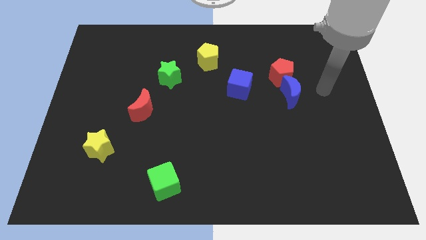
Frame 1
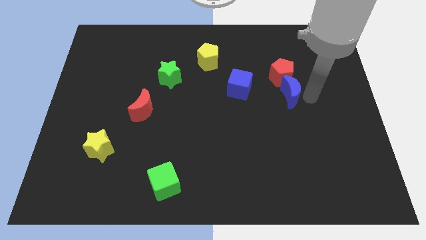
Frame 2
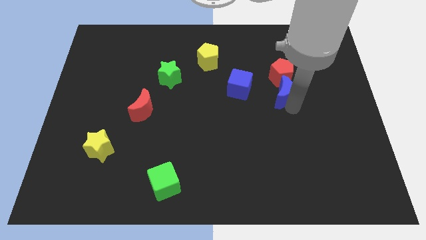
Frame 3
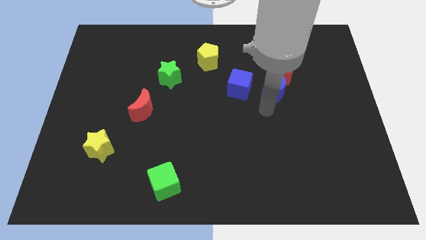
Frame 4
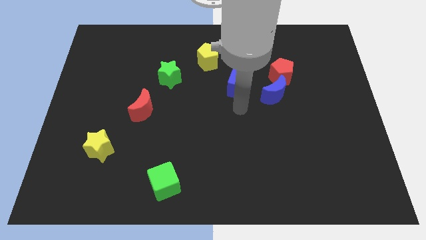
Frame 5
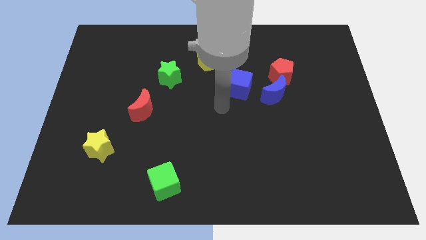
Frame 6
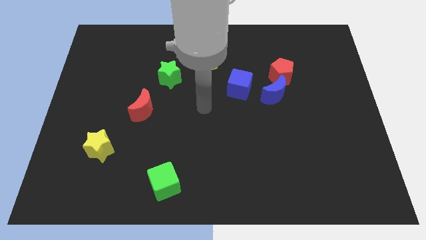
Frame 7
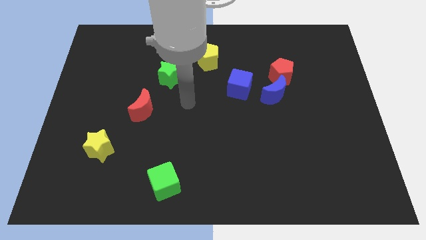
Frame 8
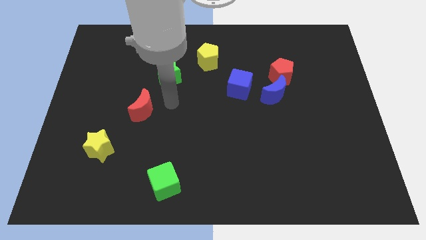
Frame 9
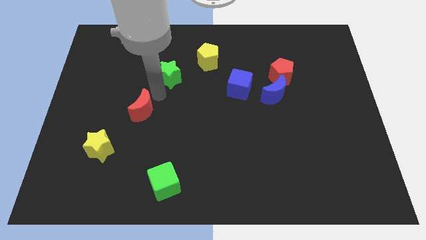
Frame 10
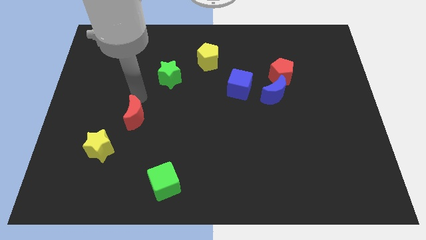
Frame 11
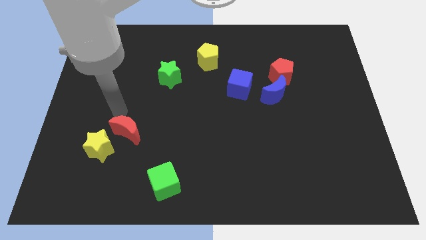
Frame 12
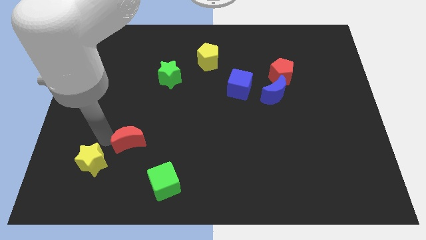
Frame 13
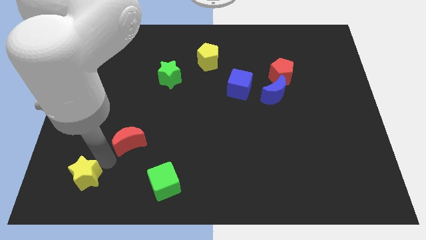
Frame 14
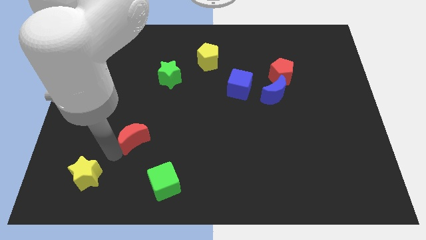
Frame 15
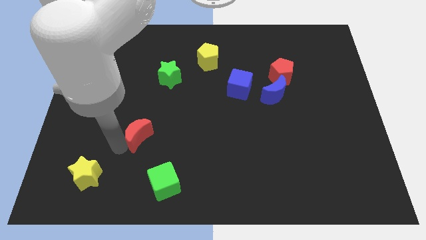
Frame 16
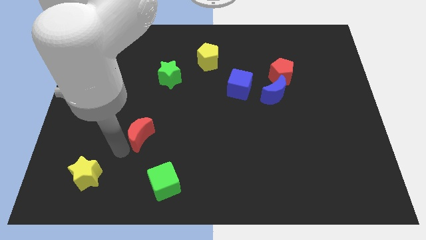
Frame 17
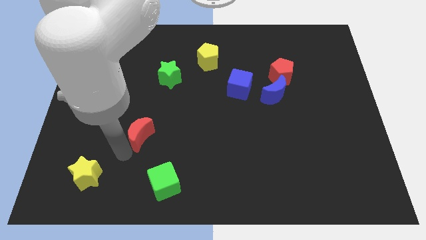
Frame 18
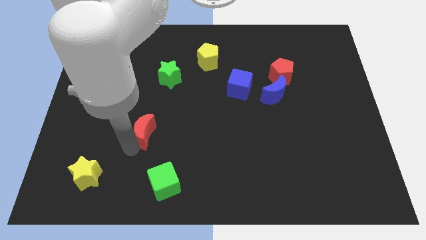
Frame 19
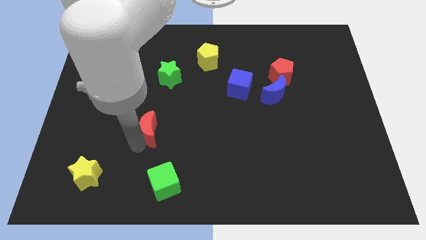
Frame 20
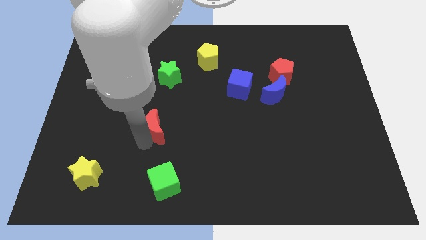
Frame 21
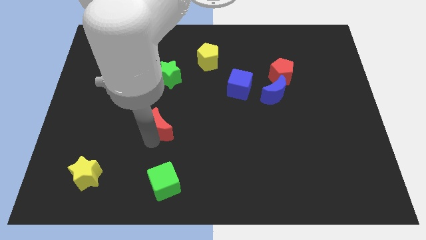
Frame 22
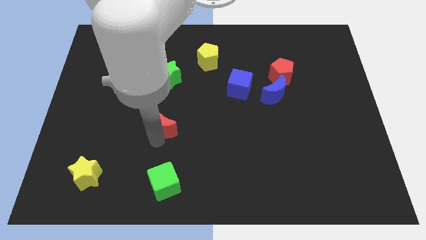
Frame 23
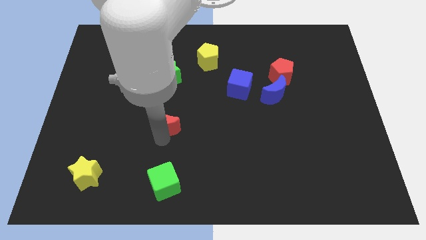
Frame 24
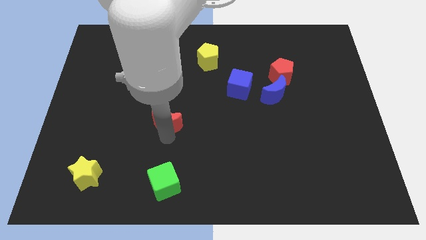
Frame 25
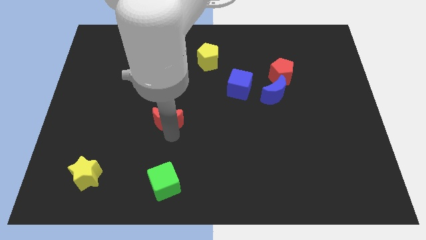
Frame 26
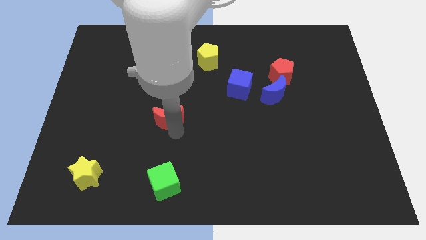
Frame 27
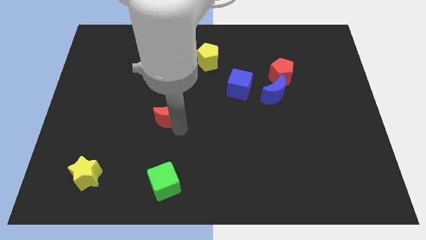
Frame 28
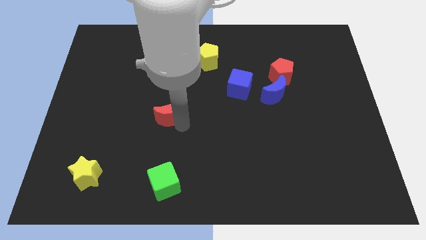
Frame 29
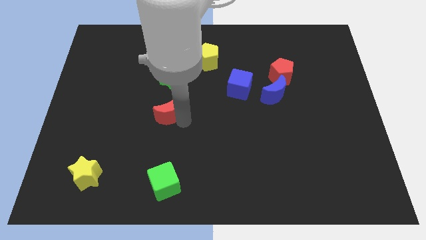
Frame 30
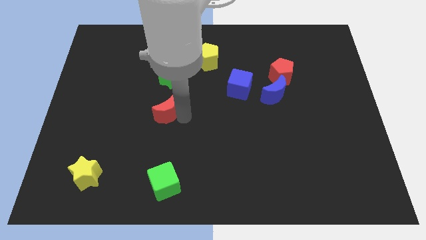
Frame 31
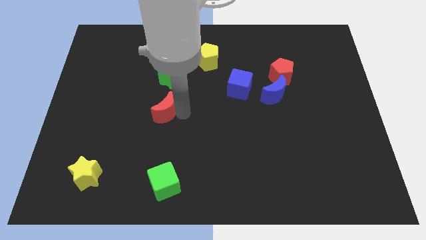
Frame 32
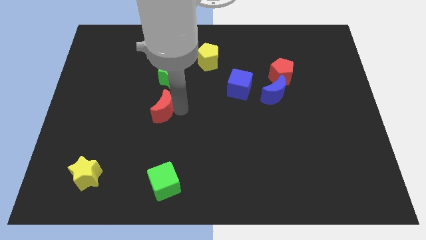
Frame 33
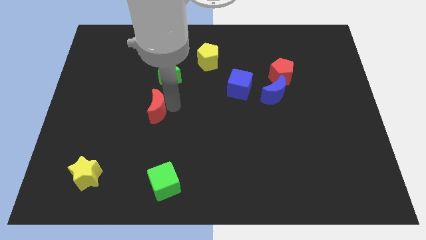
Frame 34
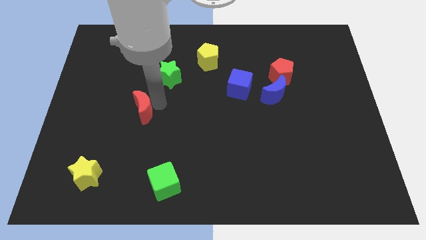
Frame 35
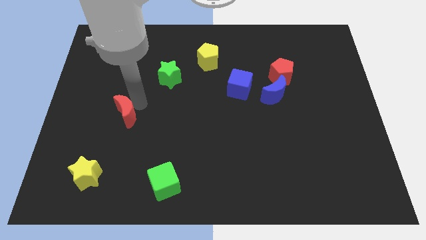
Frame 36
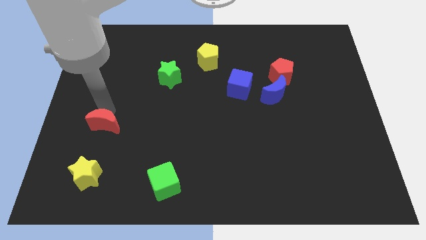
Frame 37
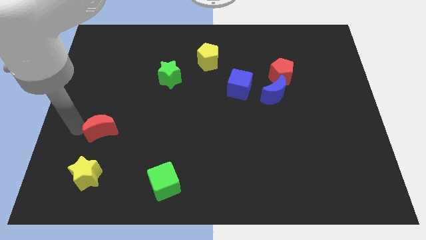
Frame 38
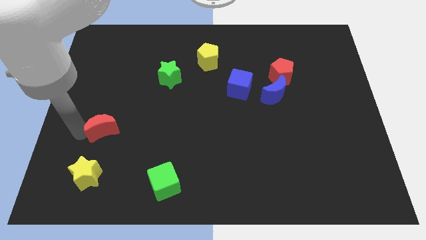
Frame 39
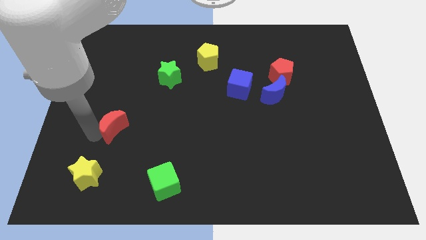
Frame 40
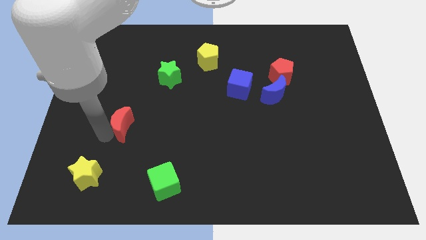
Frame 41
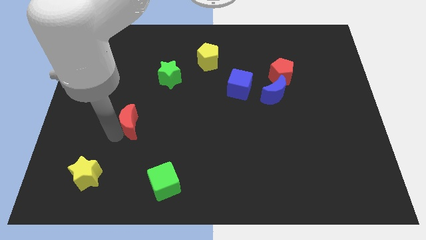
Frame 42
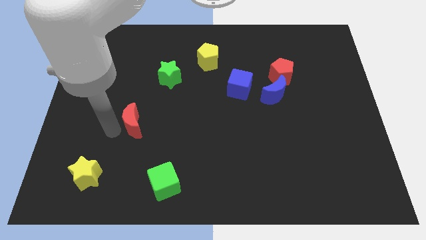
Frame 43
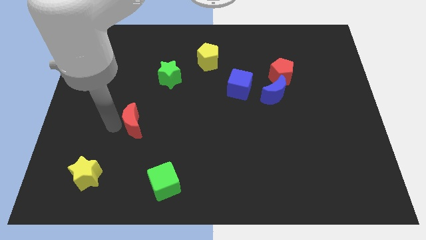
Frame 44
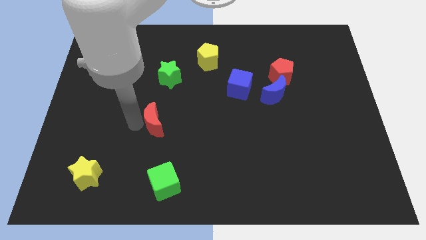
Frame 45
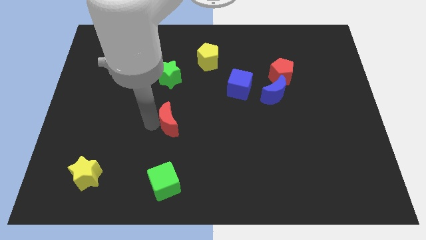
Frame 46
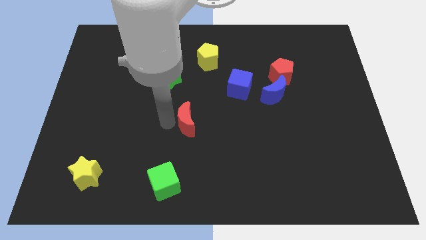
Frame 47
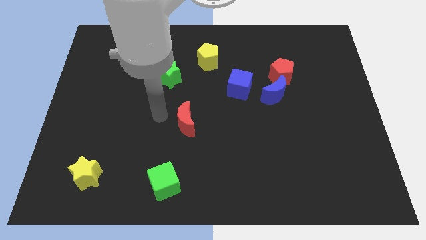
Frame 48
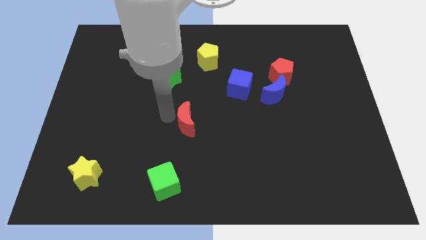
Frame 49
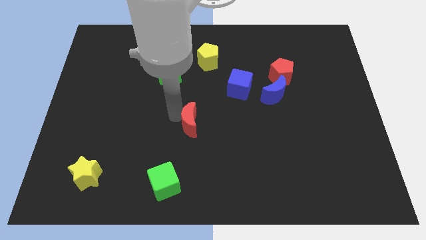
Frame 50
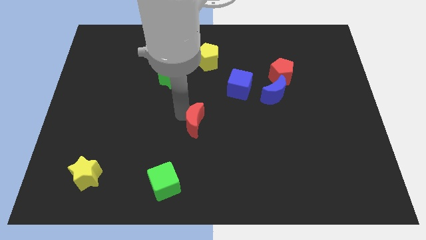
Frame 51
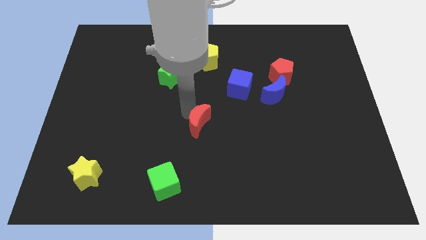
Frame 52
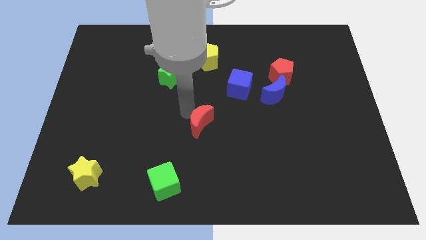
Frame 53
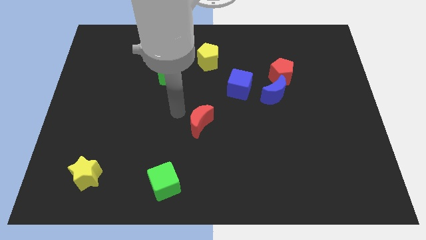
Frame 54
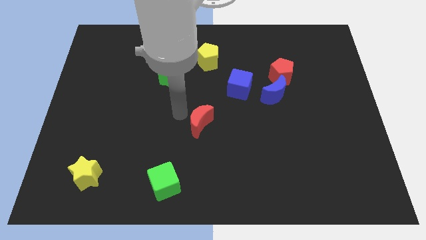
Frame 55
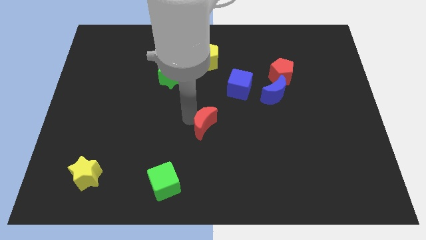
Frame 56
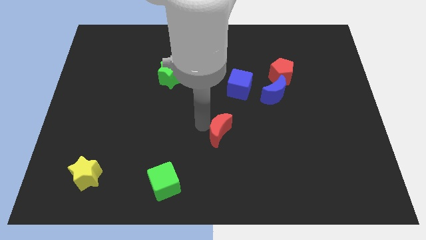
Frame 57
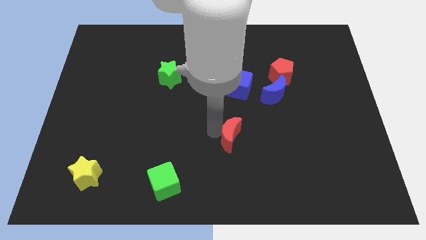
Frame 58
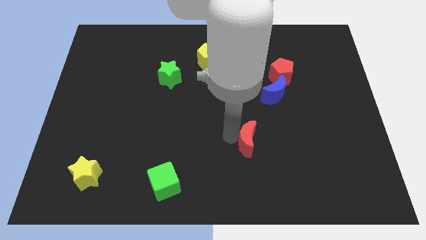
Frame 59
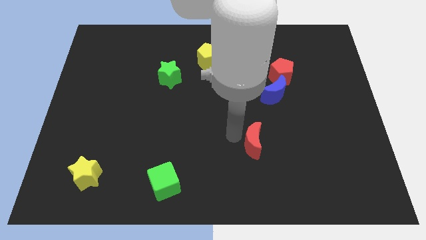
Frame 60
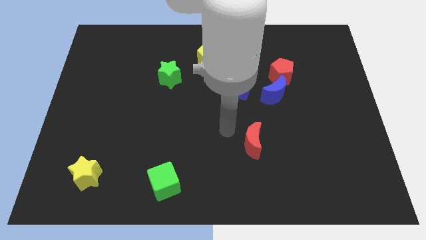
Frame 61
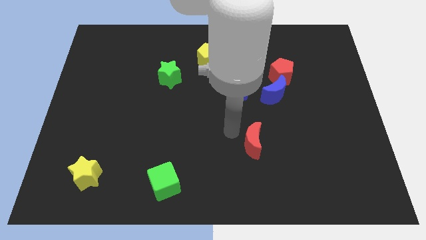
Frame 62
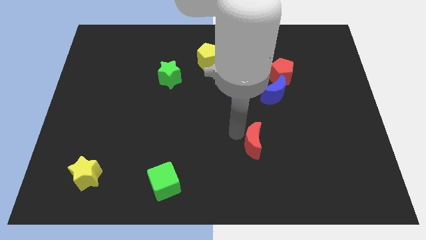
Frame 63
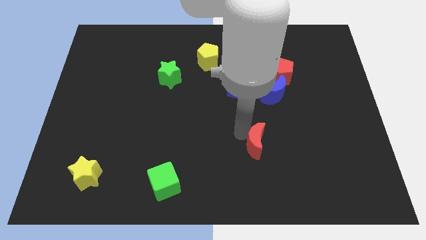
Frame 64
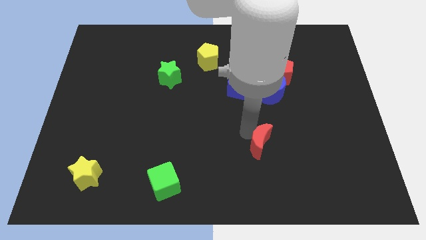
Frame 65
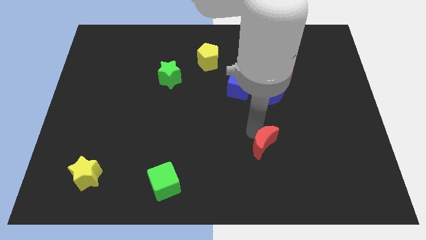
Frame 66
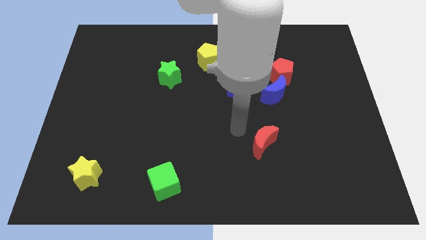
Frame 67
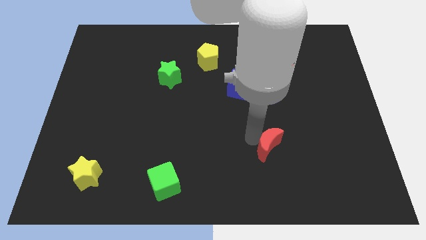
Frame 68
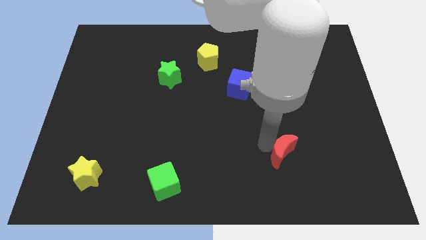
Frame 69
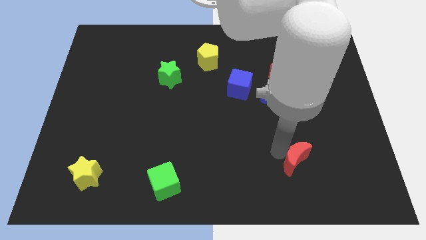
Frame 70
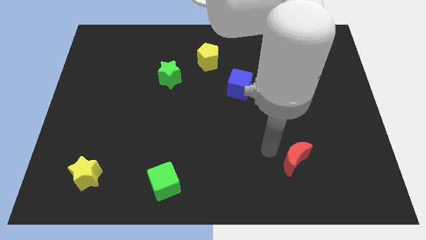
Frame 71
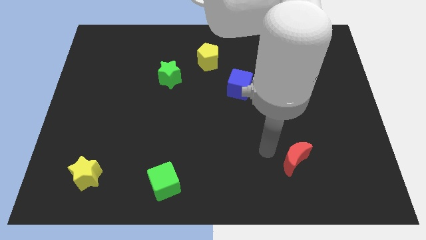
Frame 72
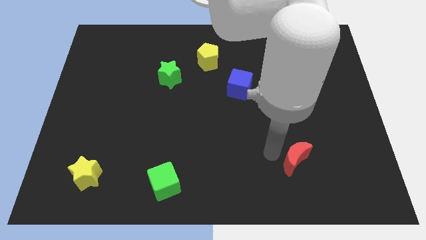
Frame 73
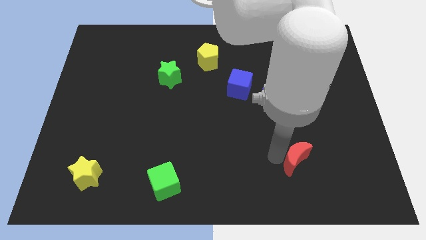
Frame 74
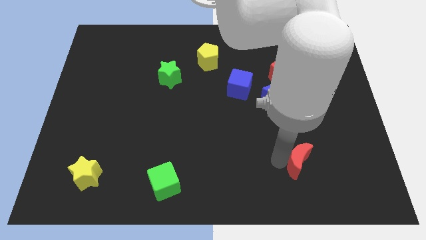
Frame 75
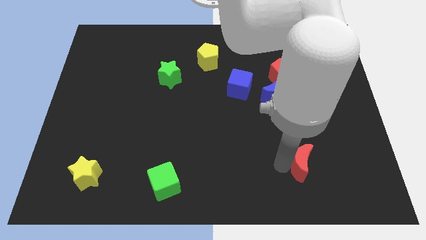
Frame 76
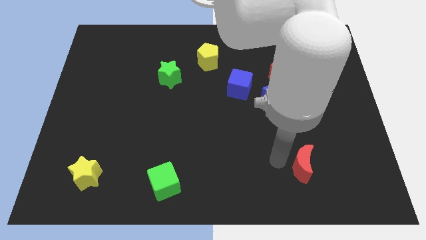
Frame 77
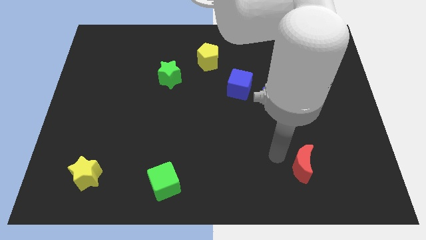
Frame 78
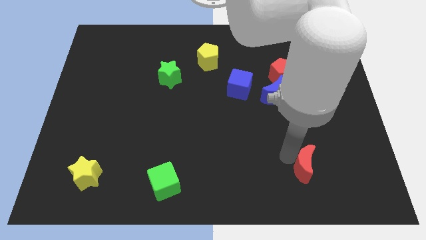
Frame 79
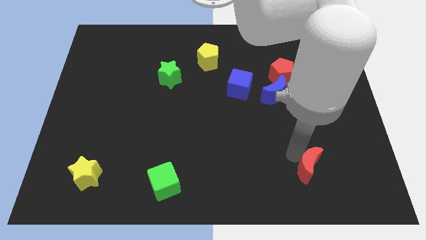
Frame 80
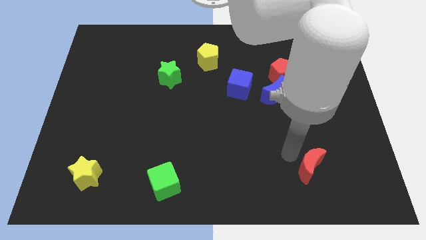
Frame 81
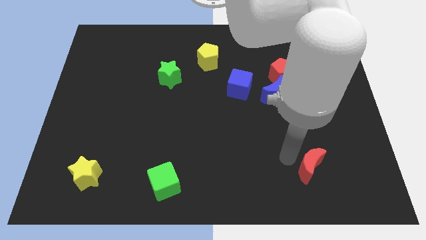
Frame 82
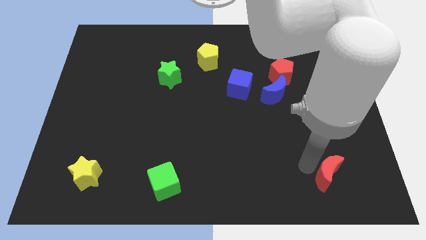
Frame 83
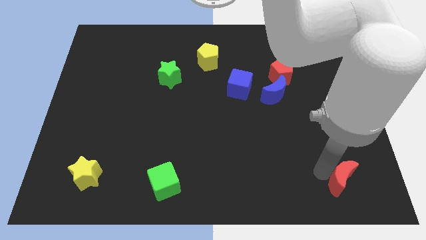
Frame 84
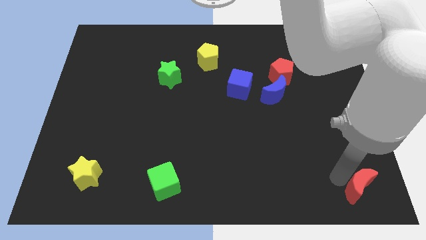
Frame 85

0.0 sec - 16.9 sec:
push the red moon to the bottom right
